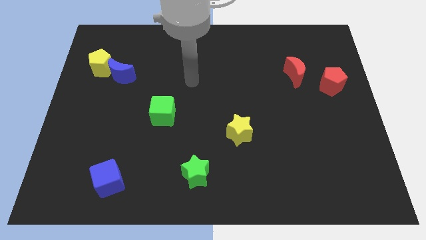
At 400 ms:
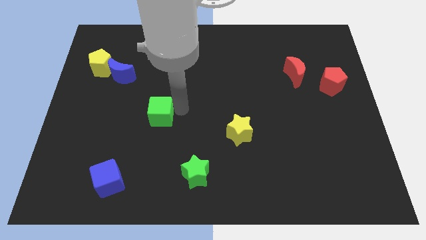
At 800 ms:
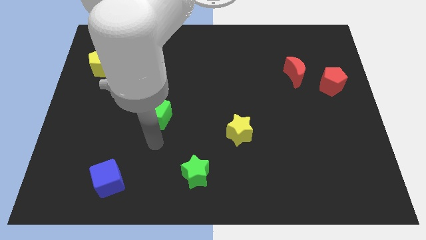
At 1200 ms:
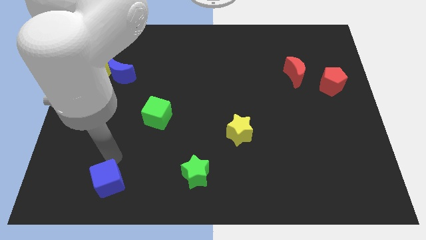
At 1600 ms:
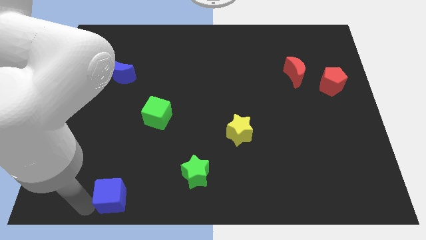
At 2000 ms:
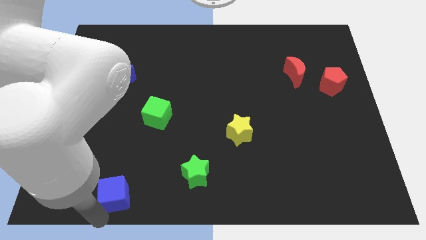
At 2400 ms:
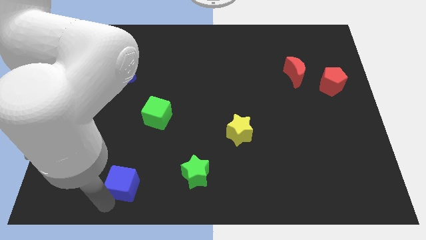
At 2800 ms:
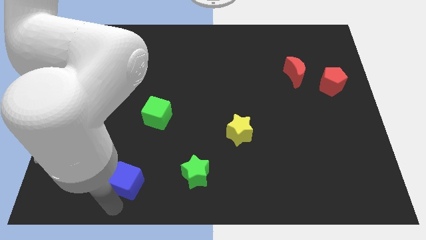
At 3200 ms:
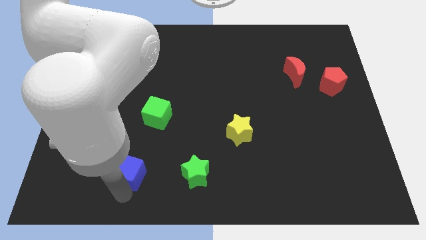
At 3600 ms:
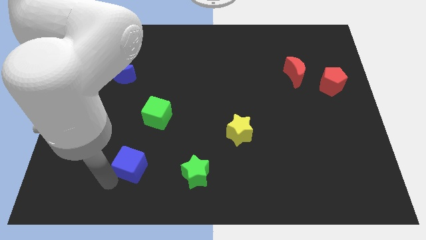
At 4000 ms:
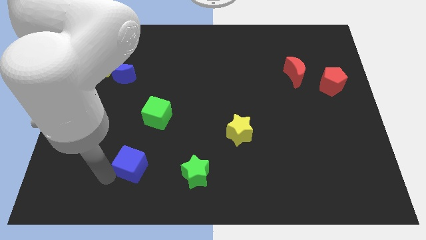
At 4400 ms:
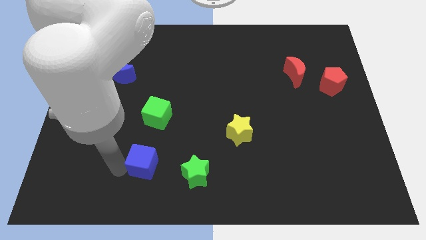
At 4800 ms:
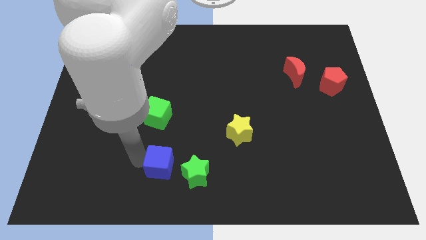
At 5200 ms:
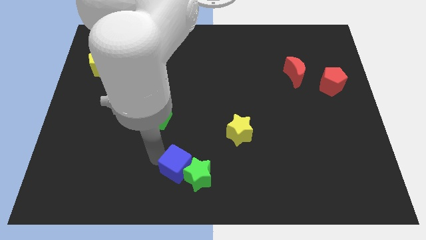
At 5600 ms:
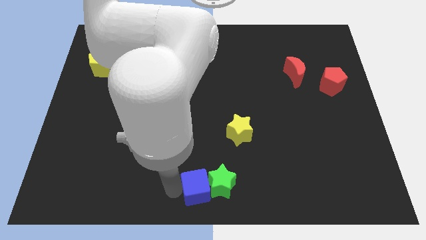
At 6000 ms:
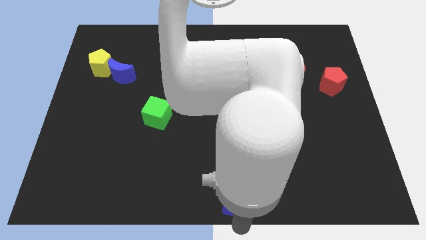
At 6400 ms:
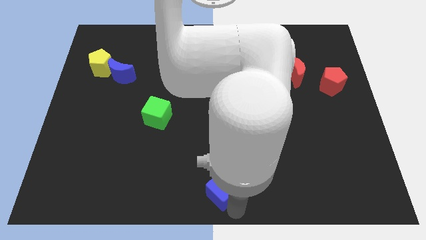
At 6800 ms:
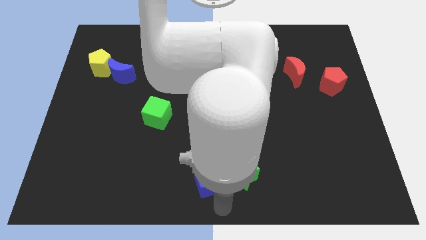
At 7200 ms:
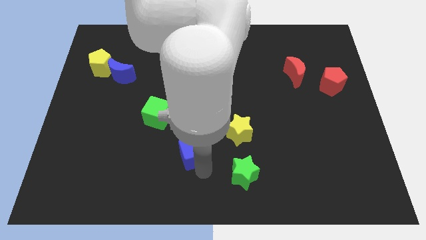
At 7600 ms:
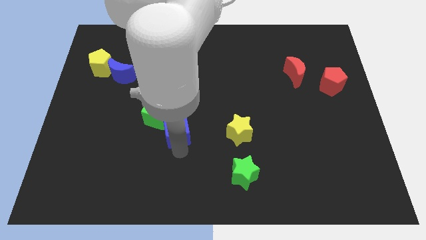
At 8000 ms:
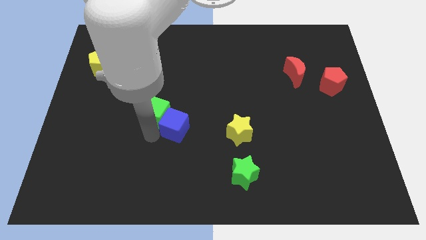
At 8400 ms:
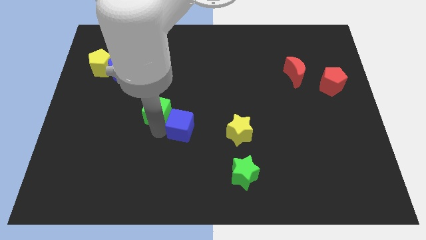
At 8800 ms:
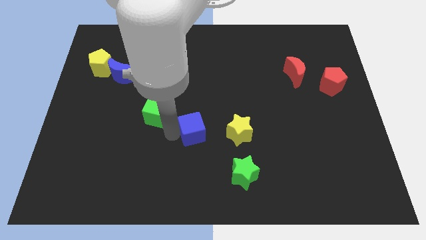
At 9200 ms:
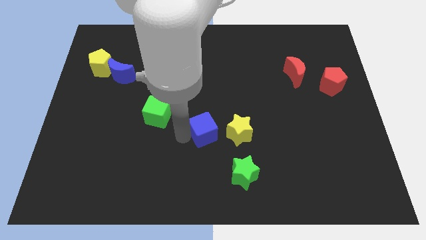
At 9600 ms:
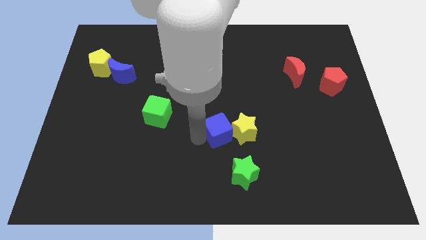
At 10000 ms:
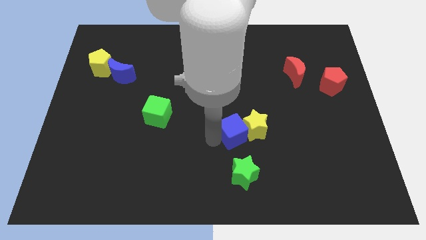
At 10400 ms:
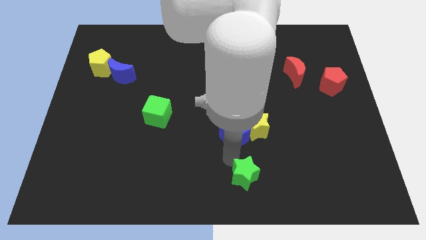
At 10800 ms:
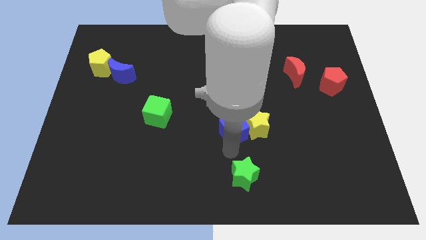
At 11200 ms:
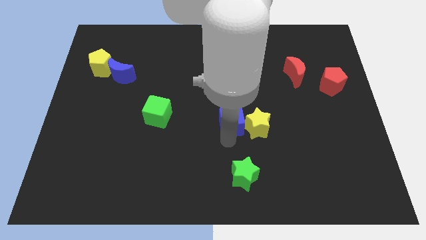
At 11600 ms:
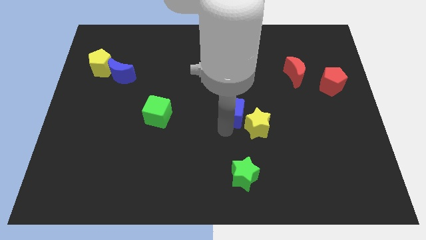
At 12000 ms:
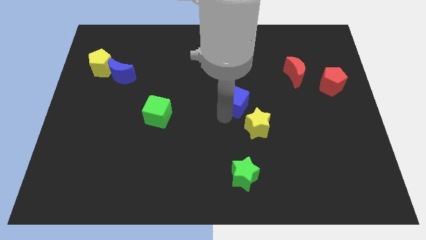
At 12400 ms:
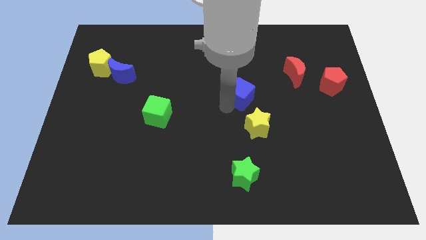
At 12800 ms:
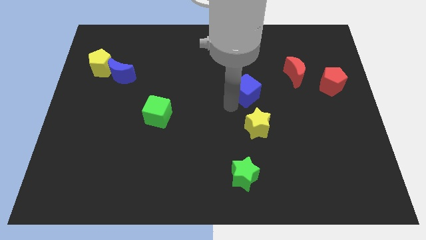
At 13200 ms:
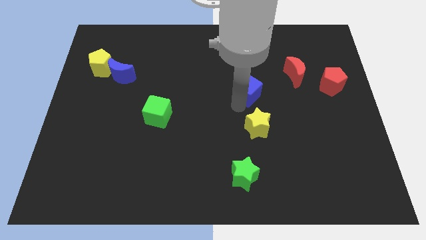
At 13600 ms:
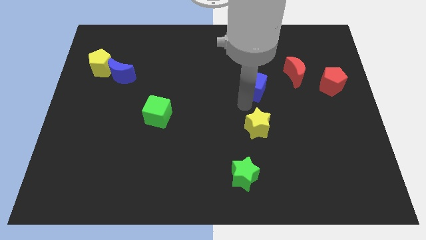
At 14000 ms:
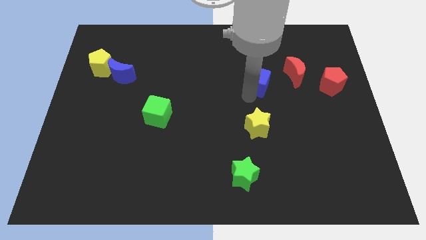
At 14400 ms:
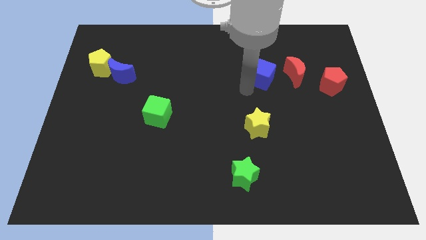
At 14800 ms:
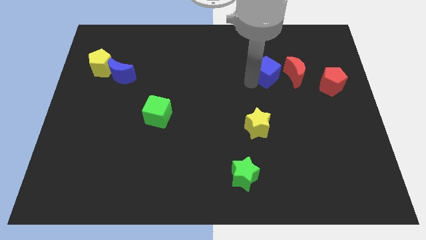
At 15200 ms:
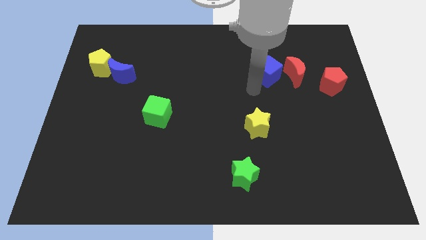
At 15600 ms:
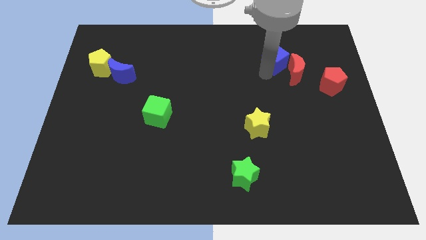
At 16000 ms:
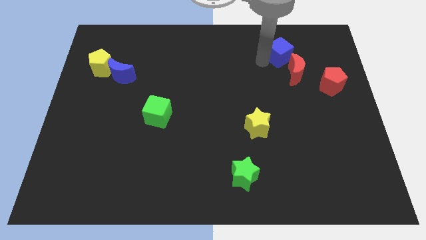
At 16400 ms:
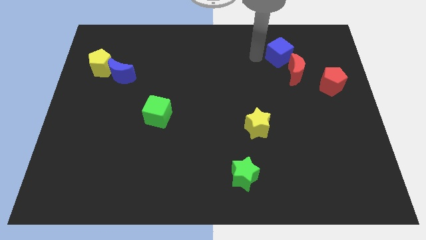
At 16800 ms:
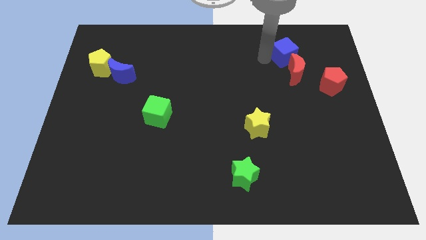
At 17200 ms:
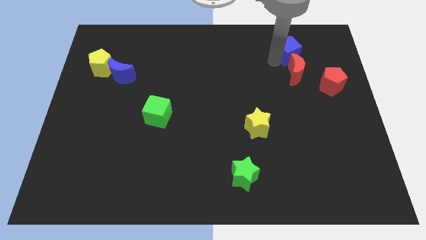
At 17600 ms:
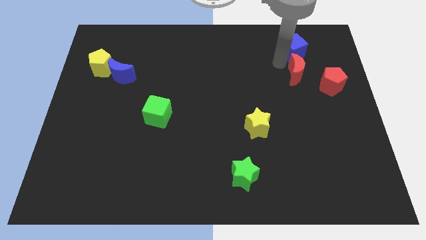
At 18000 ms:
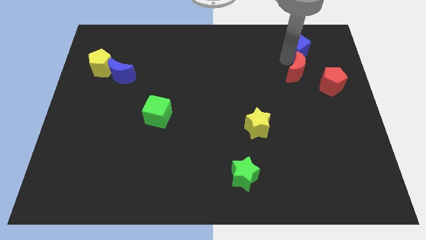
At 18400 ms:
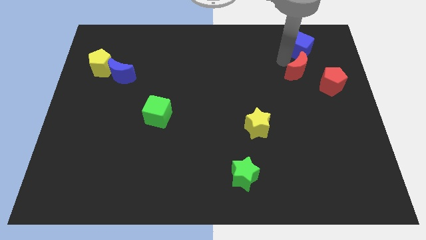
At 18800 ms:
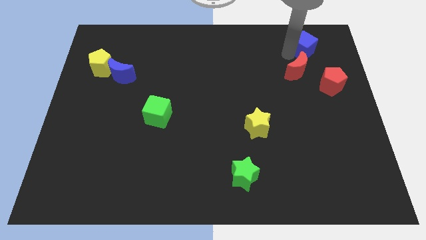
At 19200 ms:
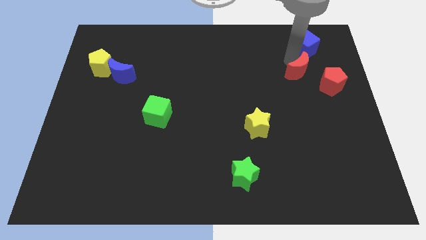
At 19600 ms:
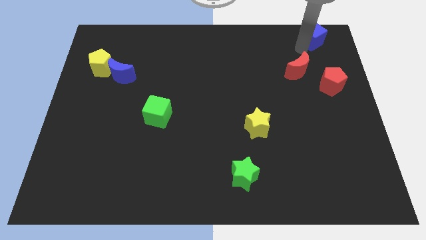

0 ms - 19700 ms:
move the blue cube to the top right

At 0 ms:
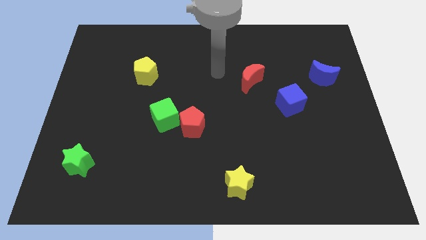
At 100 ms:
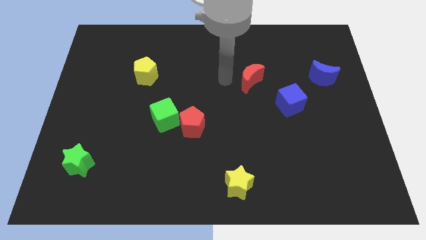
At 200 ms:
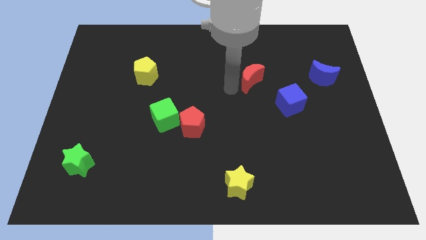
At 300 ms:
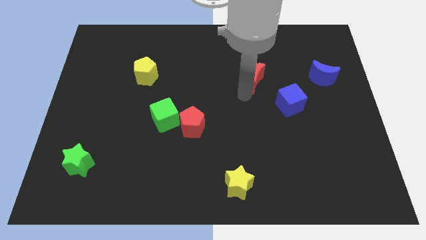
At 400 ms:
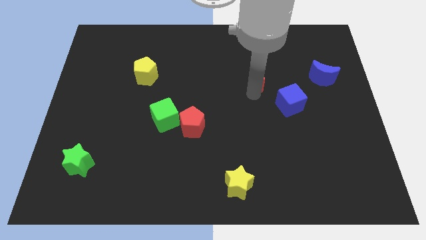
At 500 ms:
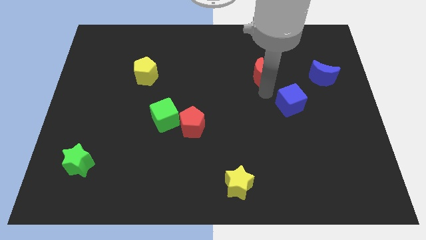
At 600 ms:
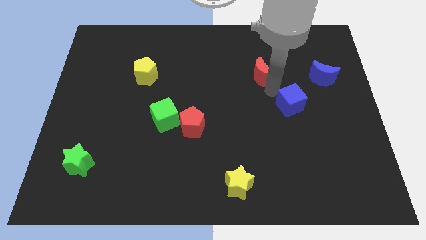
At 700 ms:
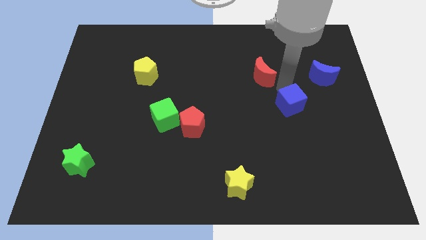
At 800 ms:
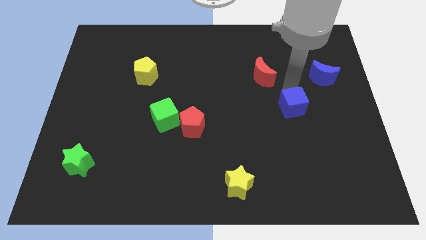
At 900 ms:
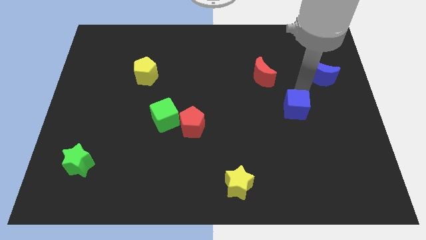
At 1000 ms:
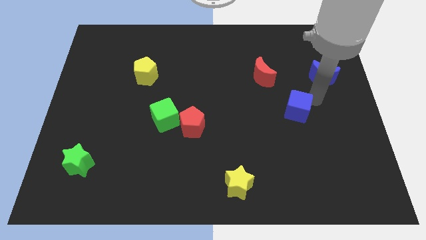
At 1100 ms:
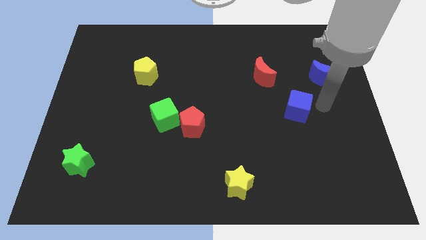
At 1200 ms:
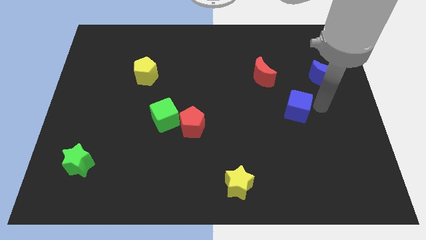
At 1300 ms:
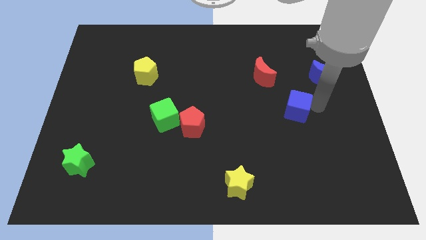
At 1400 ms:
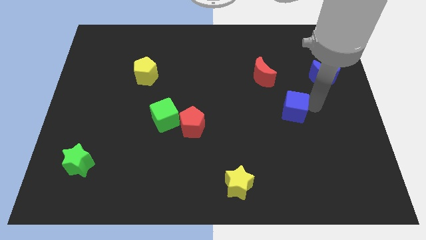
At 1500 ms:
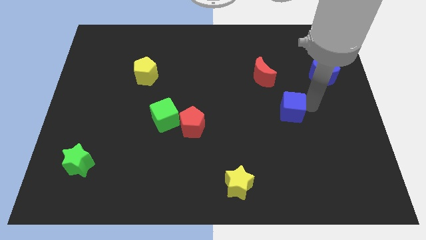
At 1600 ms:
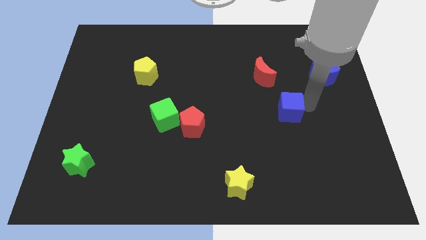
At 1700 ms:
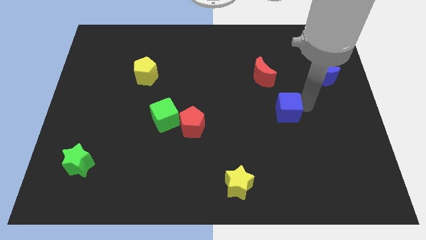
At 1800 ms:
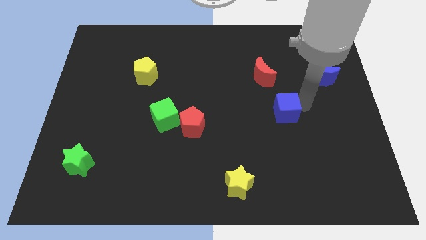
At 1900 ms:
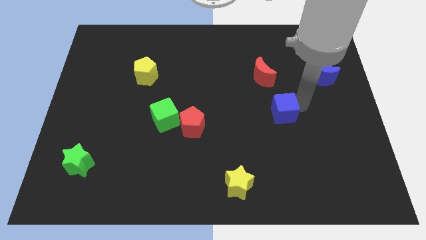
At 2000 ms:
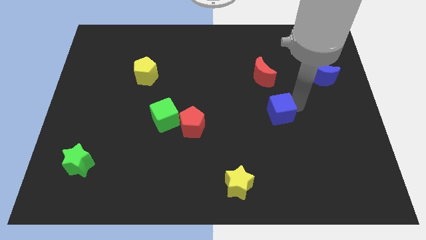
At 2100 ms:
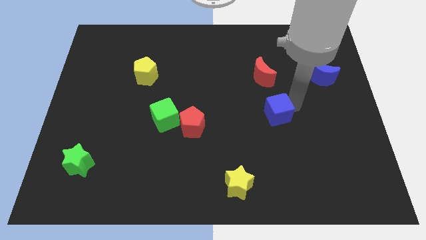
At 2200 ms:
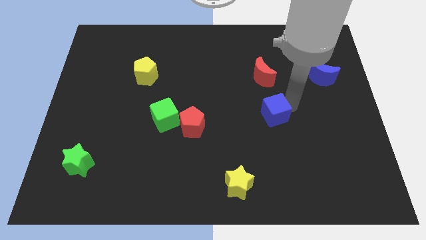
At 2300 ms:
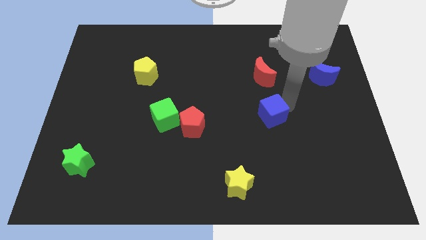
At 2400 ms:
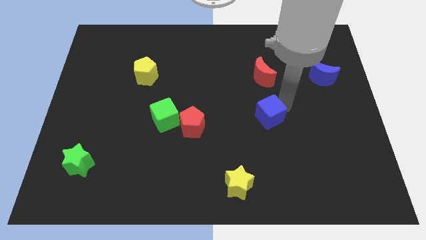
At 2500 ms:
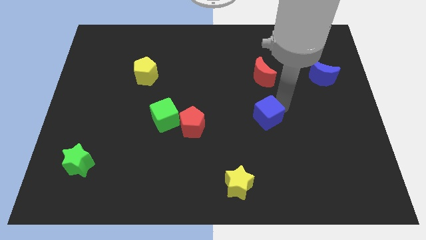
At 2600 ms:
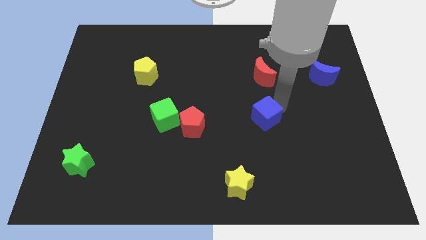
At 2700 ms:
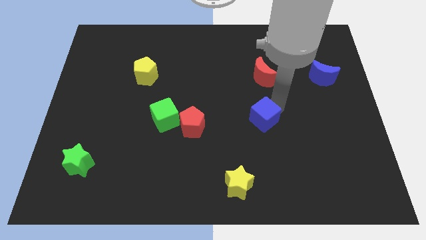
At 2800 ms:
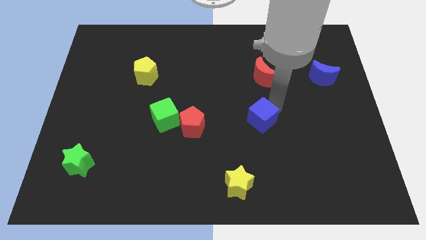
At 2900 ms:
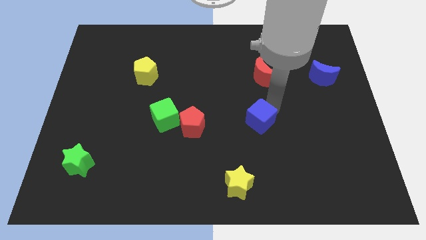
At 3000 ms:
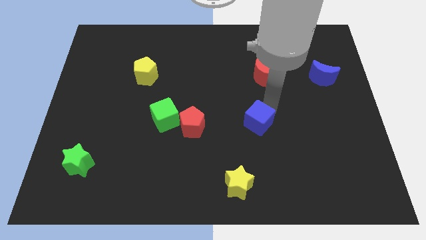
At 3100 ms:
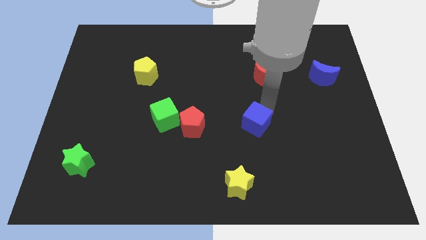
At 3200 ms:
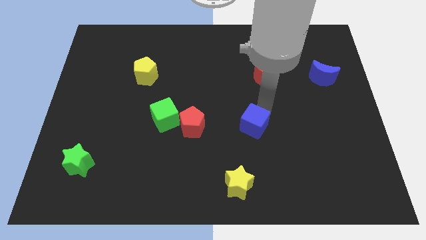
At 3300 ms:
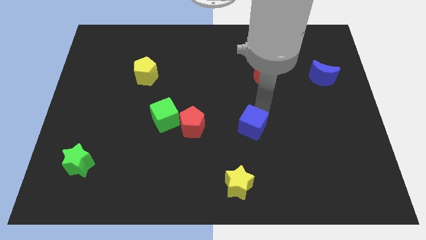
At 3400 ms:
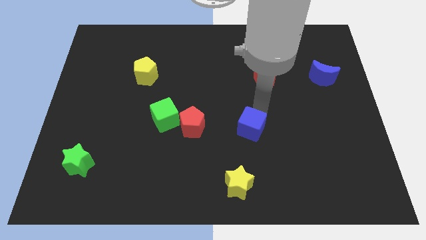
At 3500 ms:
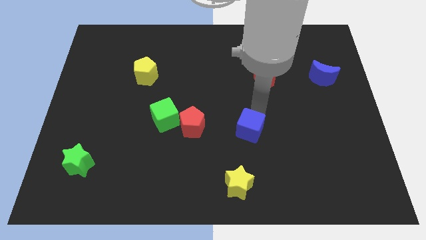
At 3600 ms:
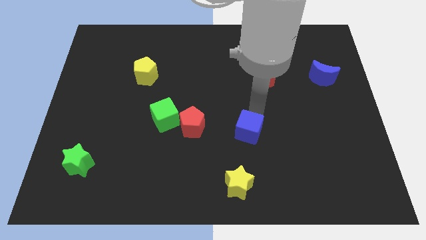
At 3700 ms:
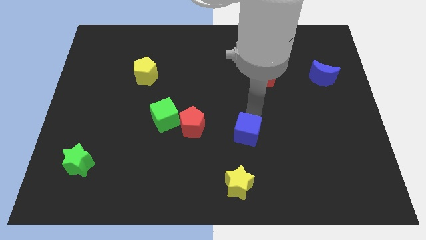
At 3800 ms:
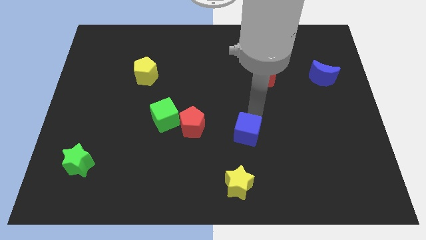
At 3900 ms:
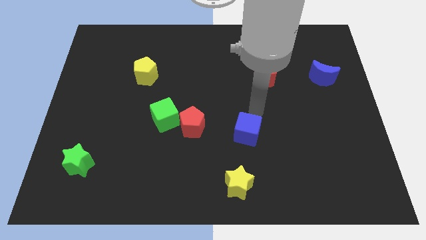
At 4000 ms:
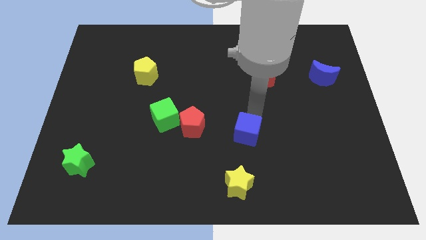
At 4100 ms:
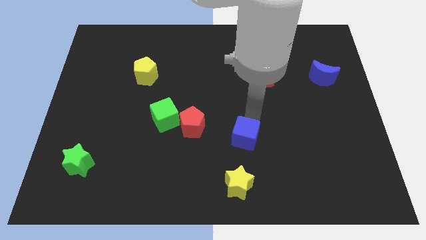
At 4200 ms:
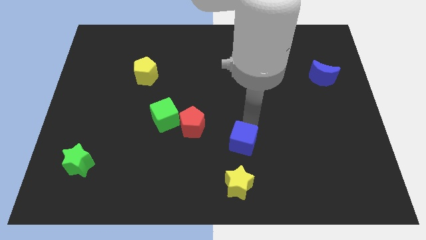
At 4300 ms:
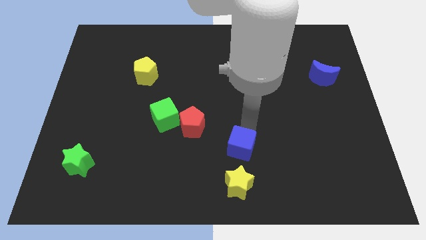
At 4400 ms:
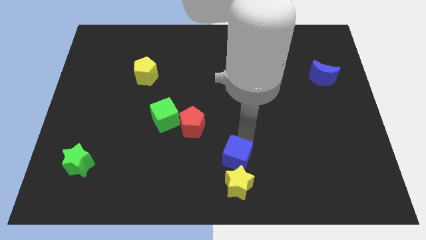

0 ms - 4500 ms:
push the blue cube to the bottom side
